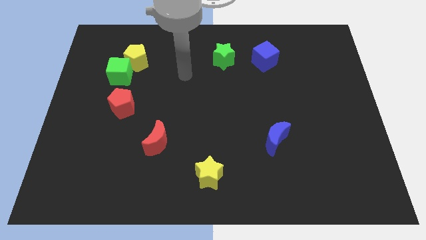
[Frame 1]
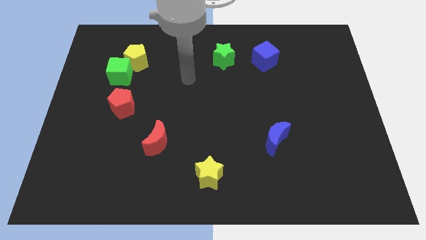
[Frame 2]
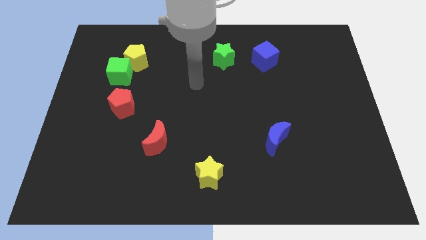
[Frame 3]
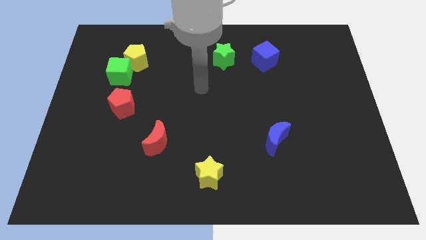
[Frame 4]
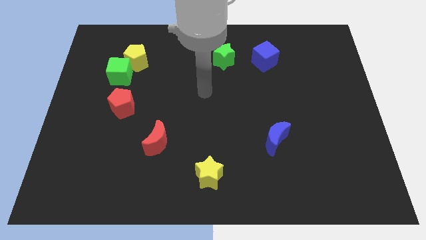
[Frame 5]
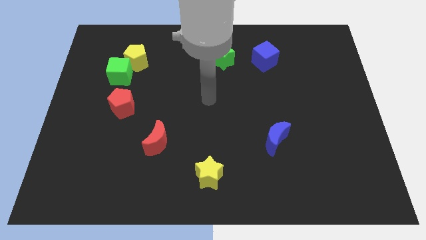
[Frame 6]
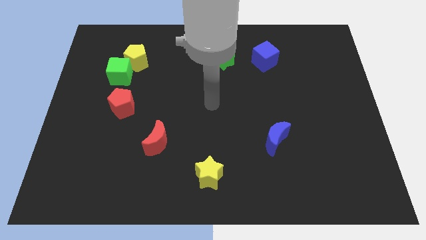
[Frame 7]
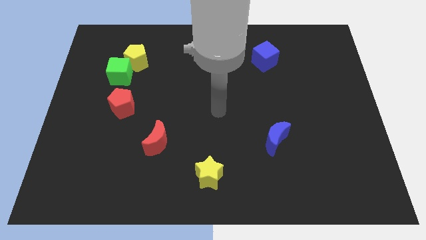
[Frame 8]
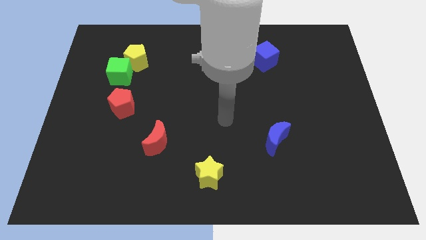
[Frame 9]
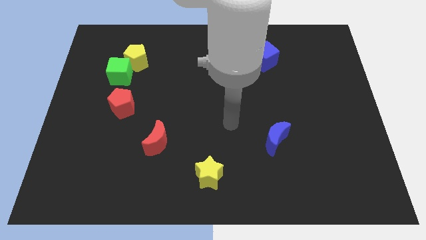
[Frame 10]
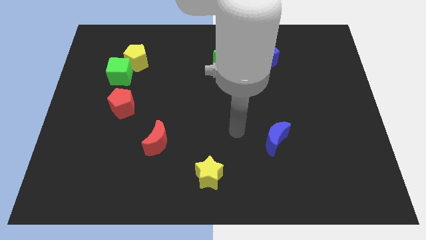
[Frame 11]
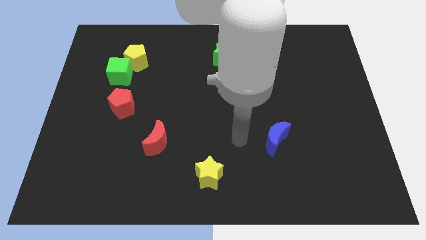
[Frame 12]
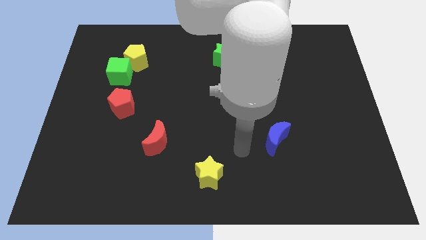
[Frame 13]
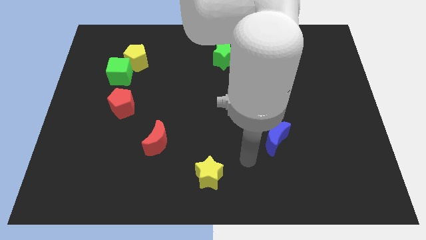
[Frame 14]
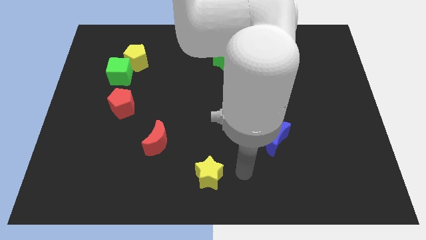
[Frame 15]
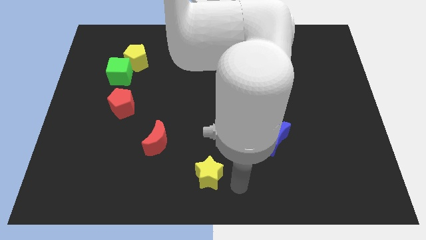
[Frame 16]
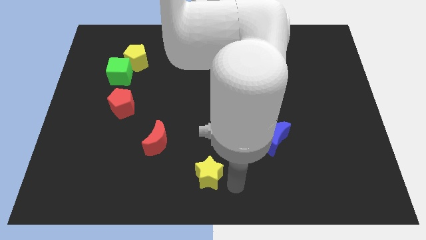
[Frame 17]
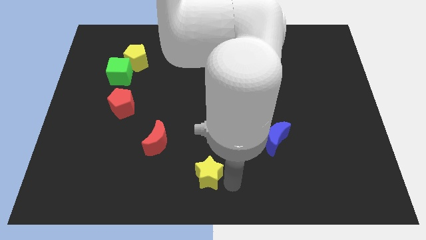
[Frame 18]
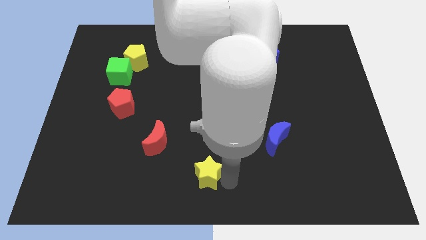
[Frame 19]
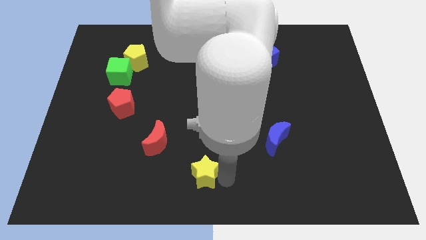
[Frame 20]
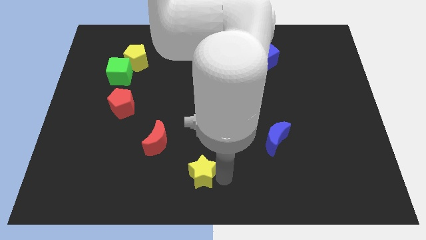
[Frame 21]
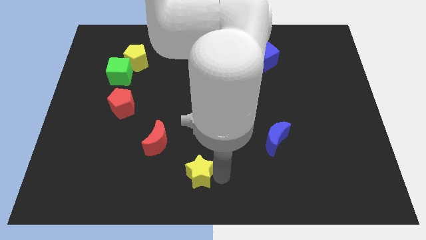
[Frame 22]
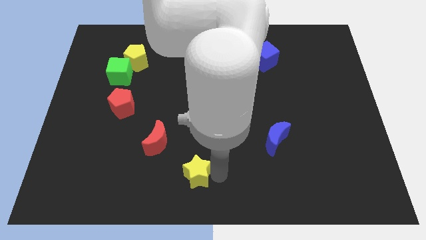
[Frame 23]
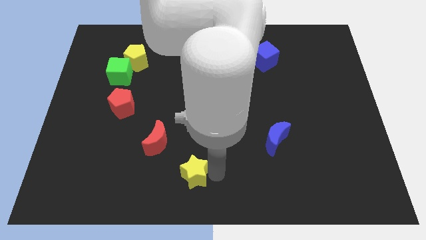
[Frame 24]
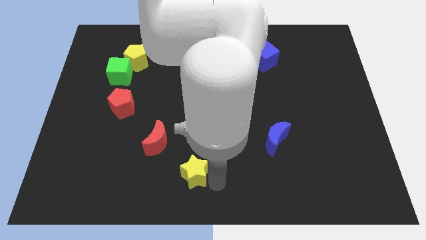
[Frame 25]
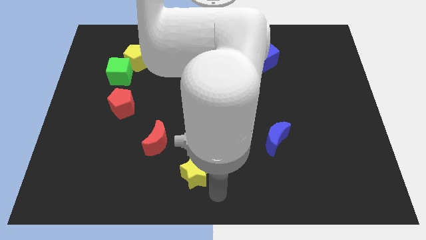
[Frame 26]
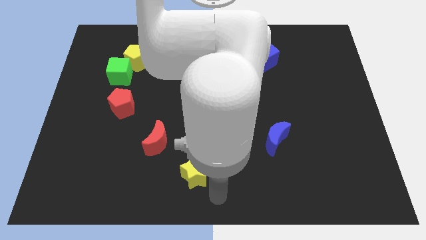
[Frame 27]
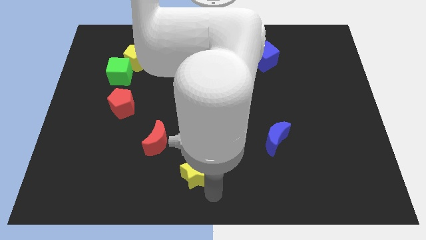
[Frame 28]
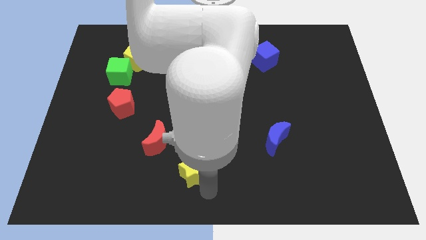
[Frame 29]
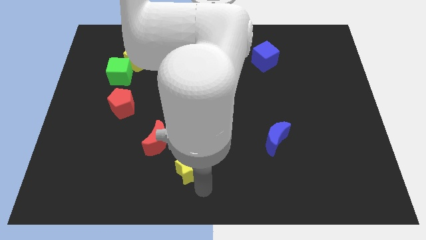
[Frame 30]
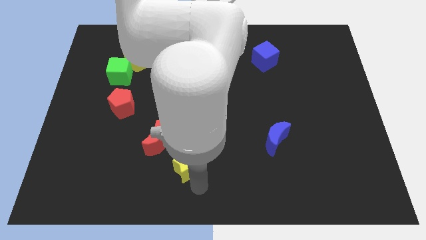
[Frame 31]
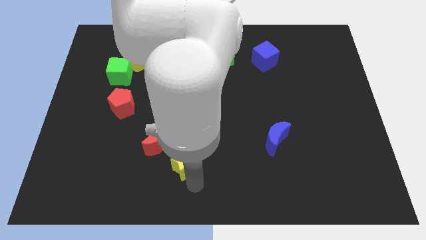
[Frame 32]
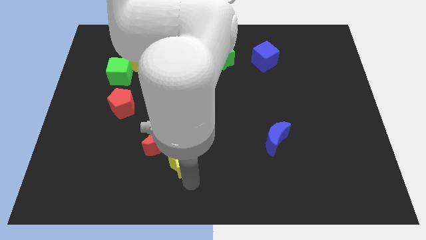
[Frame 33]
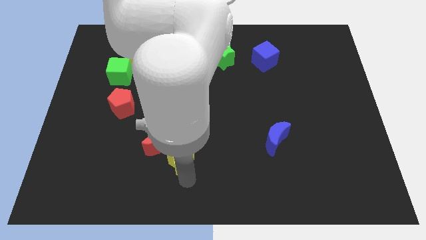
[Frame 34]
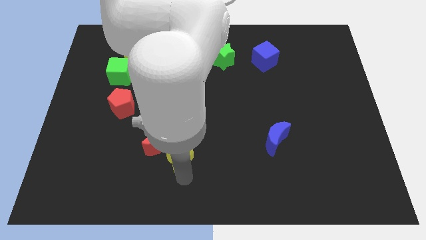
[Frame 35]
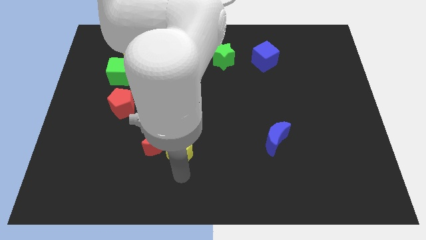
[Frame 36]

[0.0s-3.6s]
slide the yellow star towards the red moon

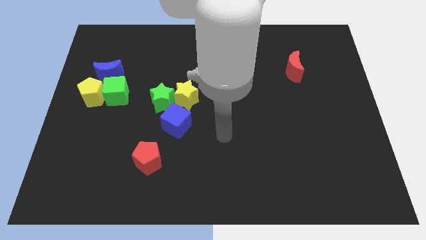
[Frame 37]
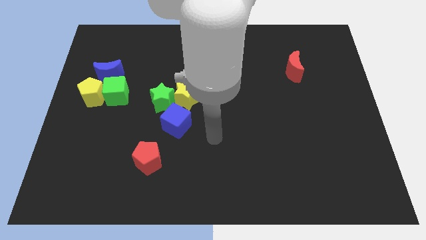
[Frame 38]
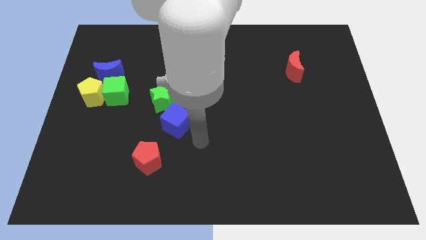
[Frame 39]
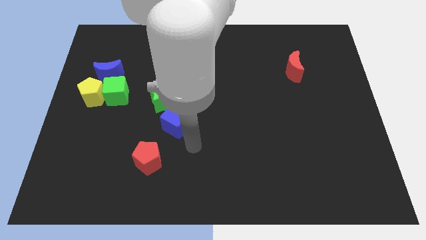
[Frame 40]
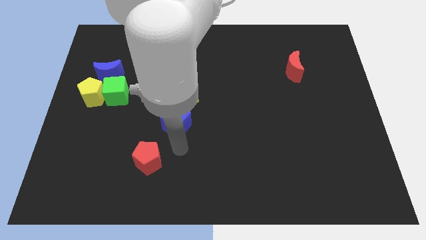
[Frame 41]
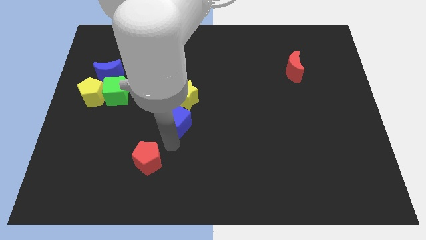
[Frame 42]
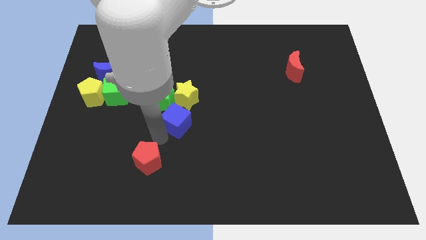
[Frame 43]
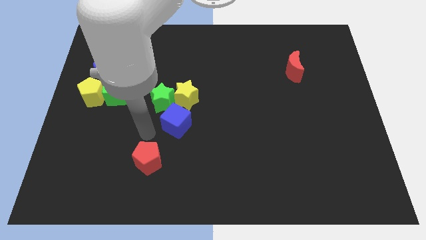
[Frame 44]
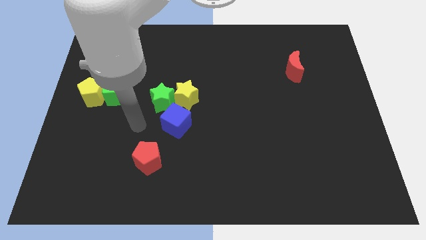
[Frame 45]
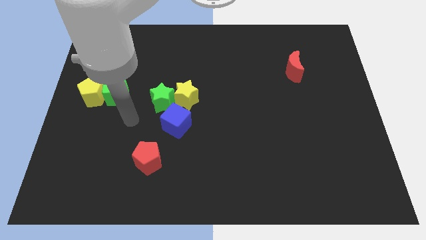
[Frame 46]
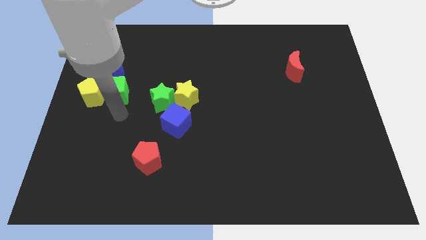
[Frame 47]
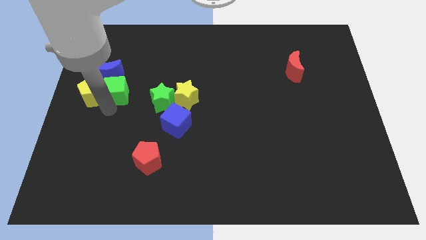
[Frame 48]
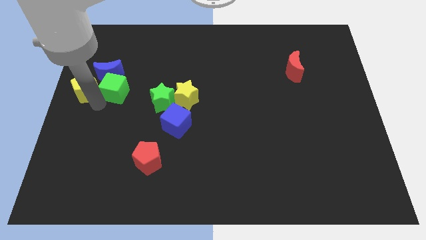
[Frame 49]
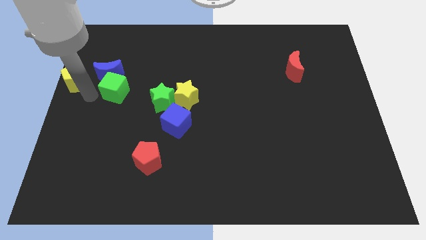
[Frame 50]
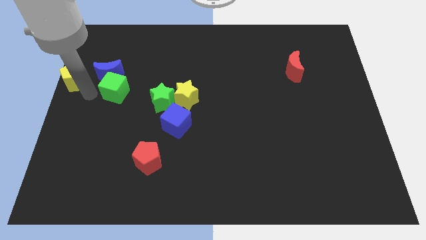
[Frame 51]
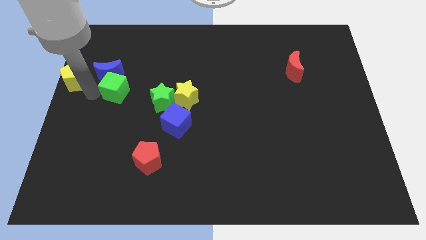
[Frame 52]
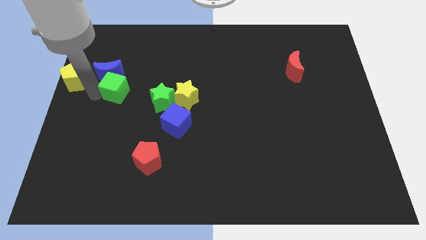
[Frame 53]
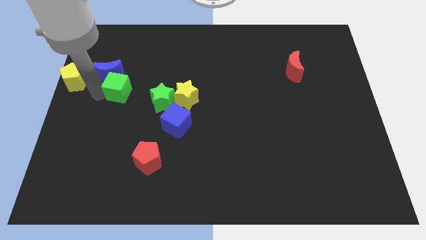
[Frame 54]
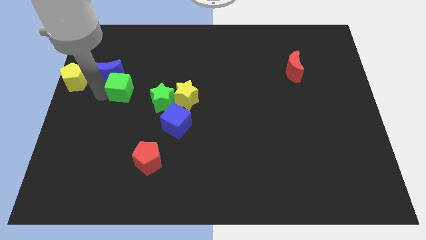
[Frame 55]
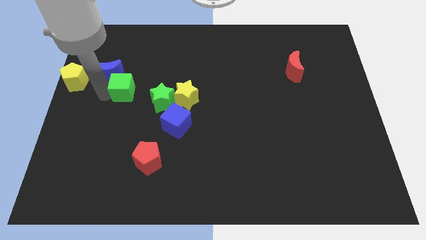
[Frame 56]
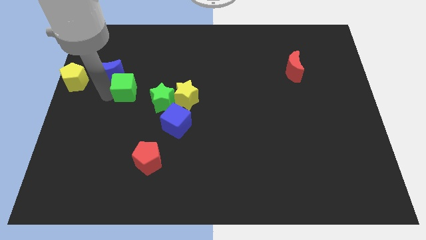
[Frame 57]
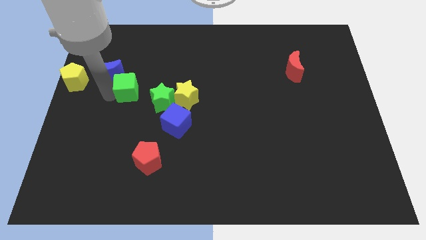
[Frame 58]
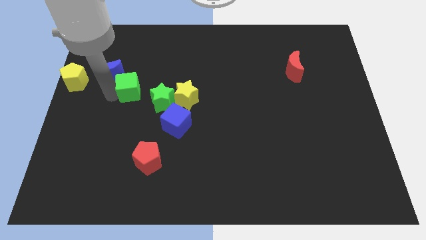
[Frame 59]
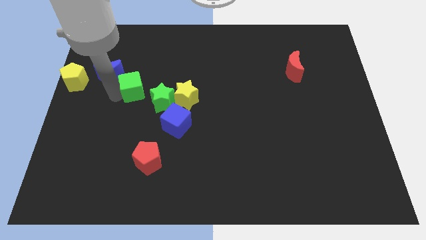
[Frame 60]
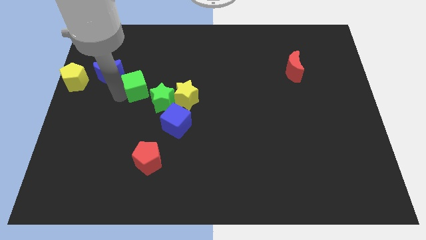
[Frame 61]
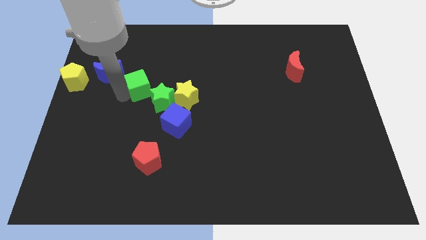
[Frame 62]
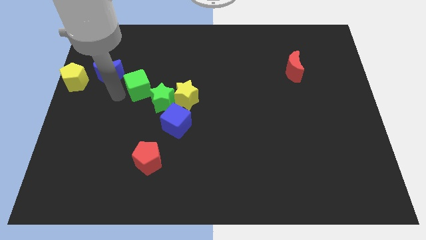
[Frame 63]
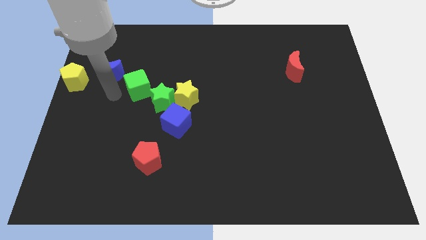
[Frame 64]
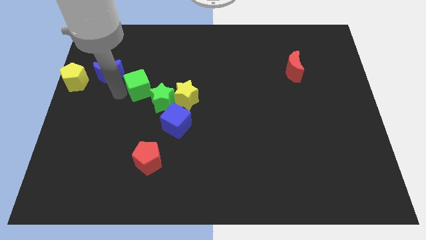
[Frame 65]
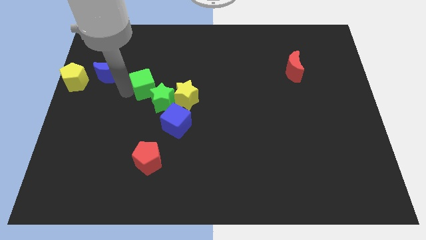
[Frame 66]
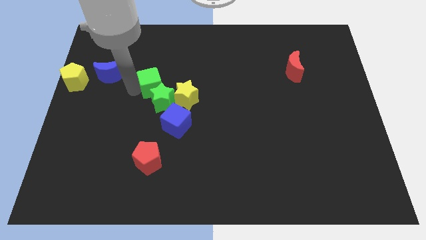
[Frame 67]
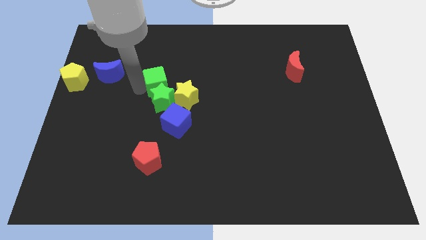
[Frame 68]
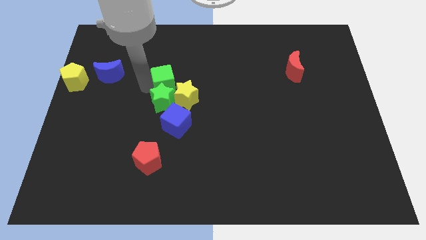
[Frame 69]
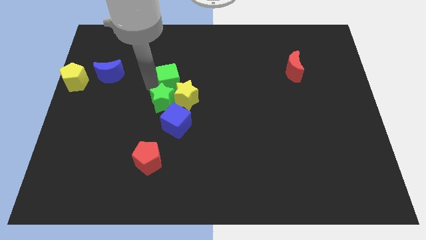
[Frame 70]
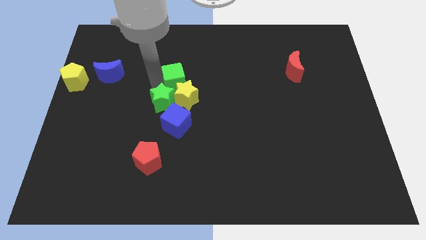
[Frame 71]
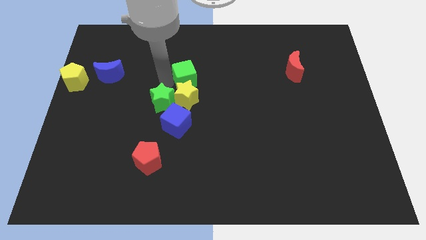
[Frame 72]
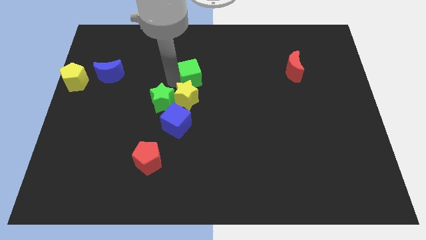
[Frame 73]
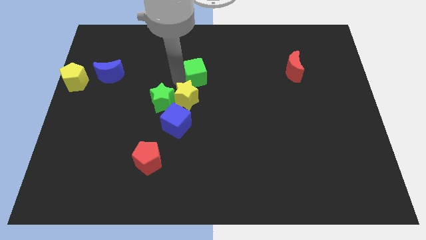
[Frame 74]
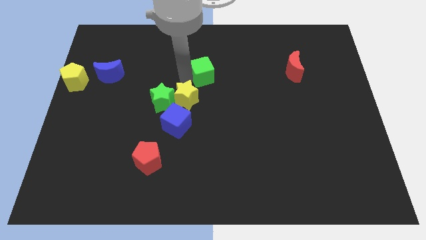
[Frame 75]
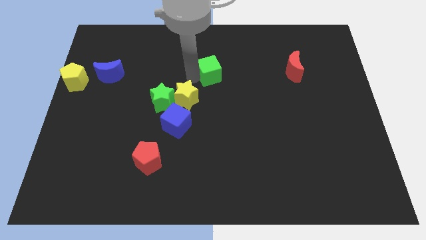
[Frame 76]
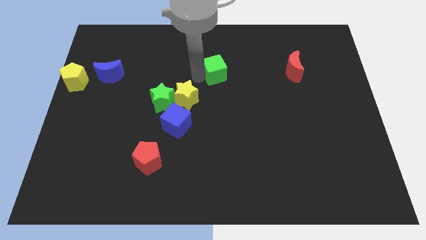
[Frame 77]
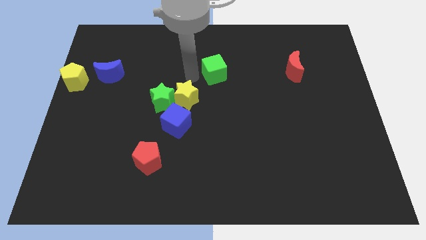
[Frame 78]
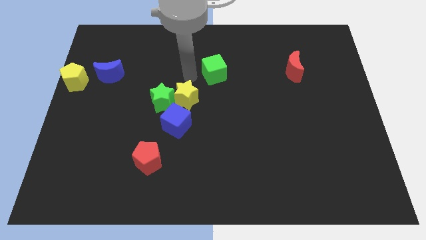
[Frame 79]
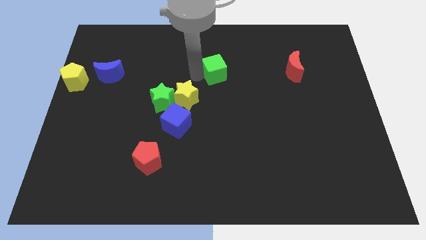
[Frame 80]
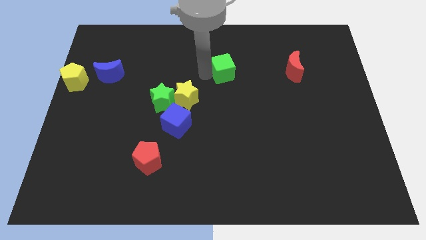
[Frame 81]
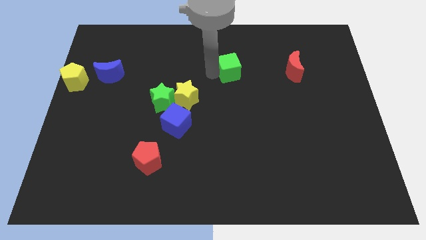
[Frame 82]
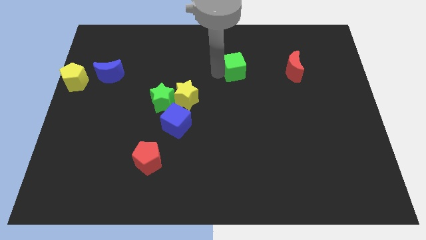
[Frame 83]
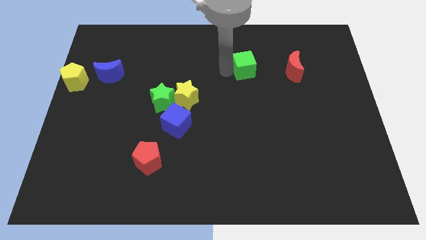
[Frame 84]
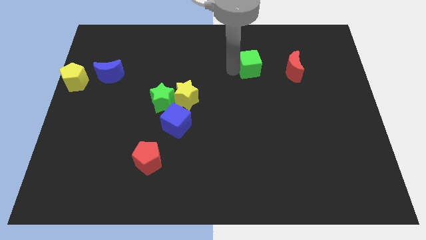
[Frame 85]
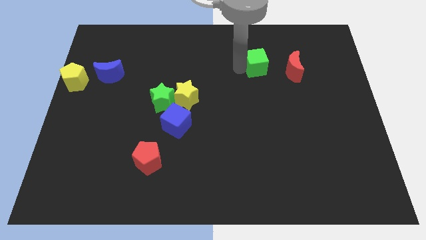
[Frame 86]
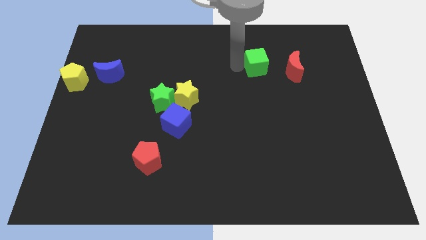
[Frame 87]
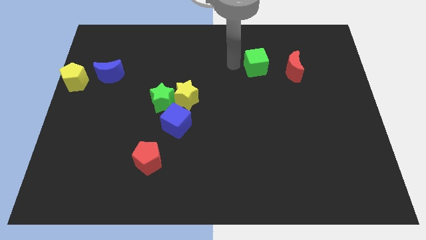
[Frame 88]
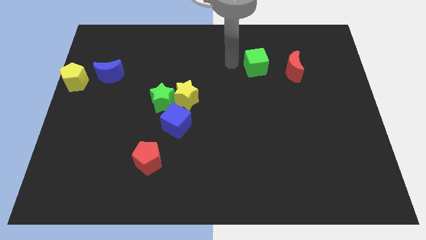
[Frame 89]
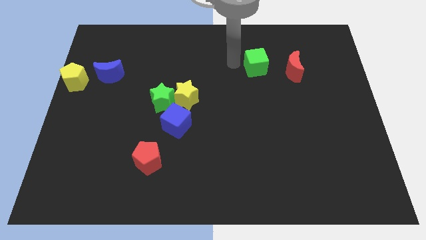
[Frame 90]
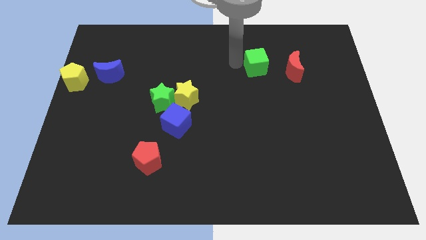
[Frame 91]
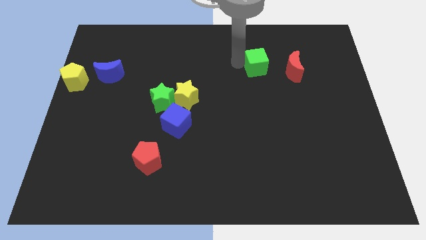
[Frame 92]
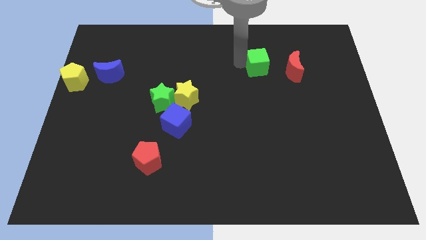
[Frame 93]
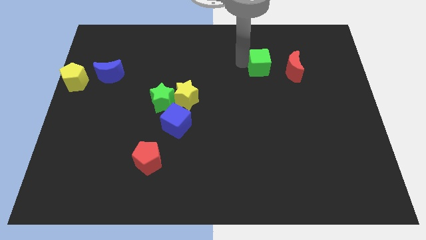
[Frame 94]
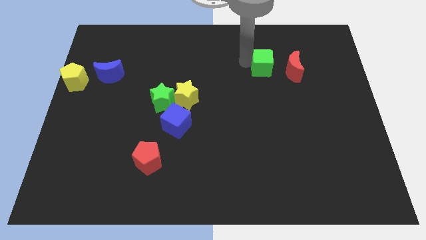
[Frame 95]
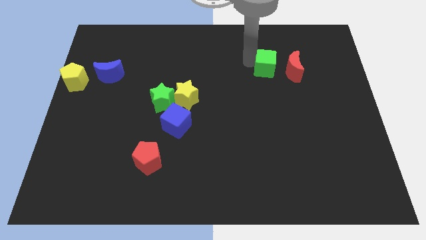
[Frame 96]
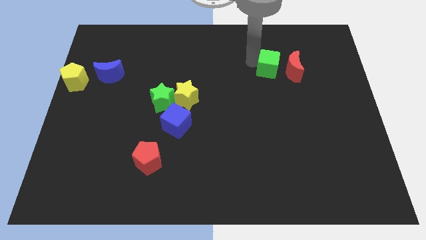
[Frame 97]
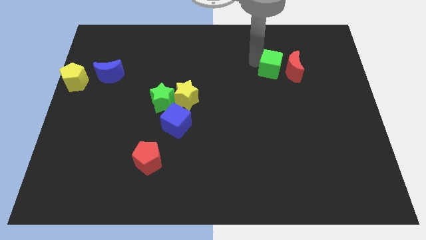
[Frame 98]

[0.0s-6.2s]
move the green cube next to the red moon
